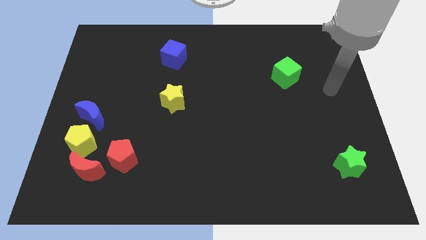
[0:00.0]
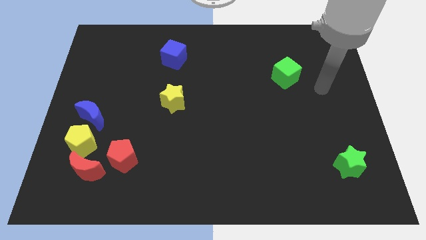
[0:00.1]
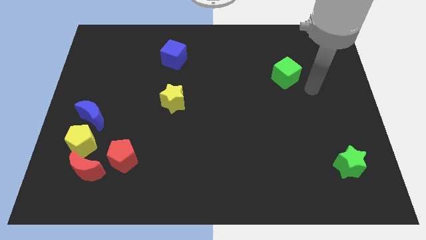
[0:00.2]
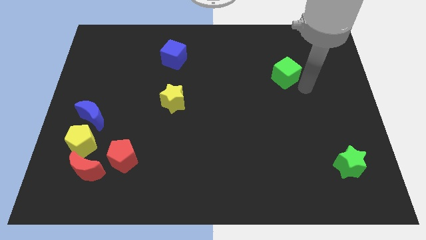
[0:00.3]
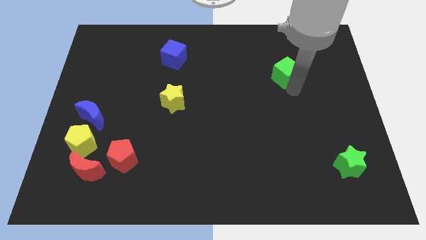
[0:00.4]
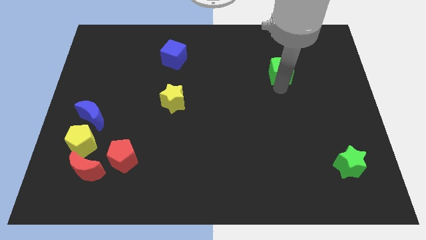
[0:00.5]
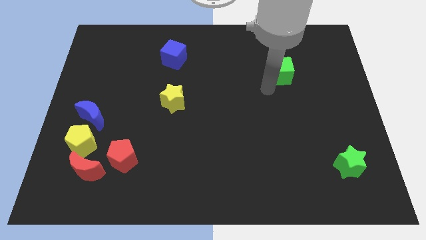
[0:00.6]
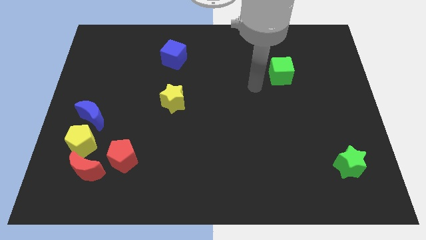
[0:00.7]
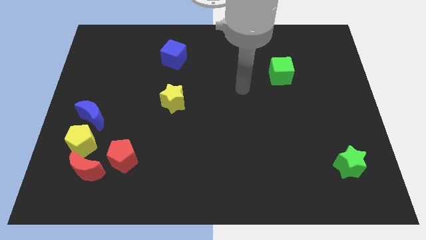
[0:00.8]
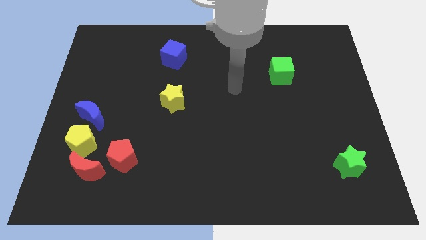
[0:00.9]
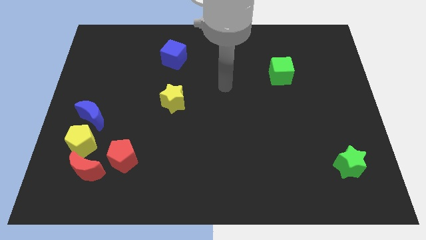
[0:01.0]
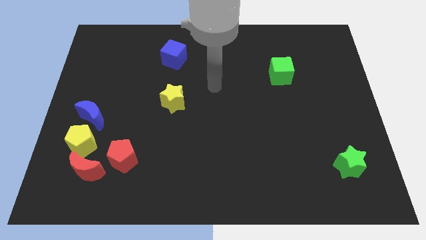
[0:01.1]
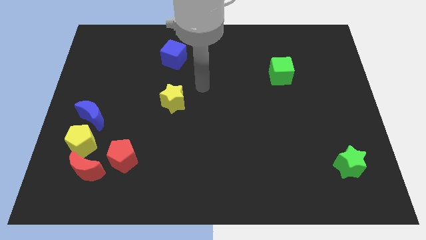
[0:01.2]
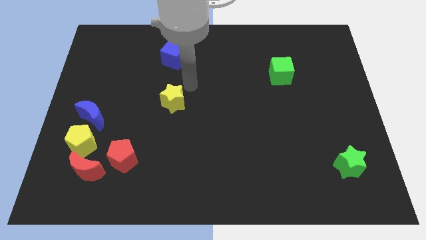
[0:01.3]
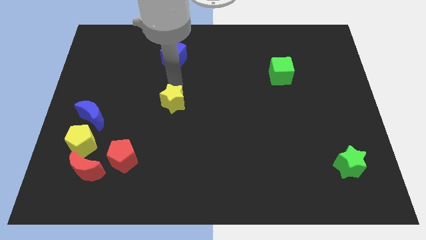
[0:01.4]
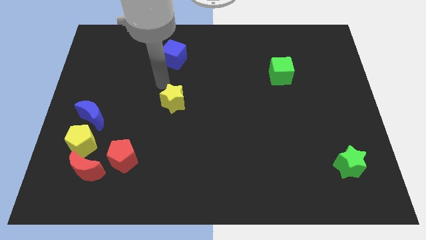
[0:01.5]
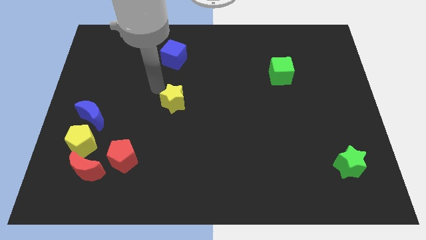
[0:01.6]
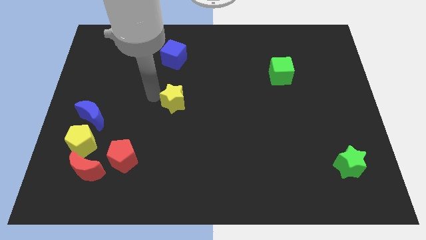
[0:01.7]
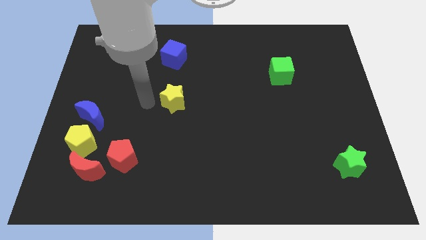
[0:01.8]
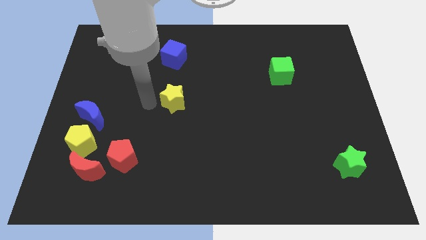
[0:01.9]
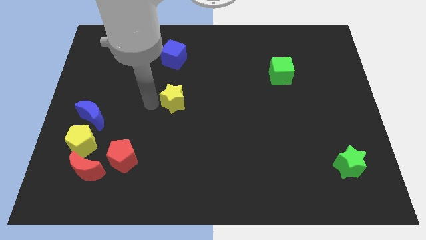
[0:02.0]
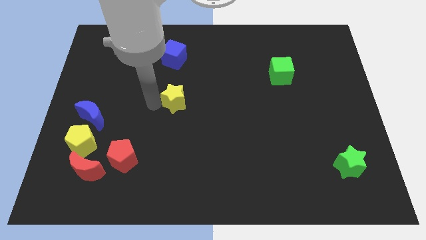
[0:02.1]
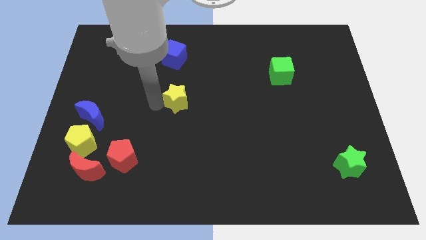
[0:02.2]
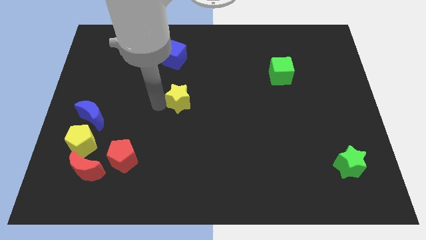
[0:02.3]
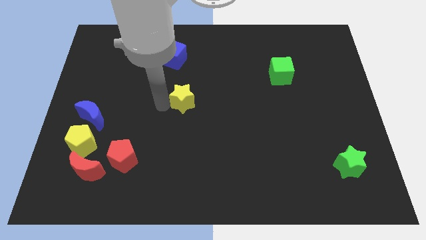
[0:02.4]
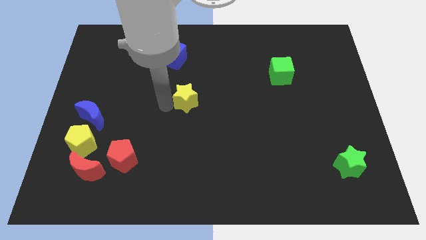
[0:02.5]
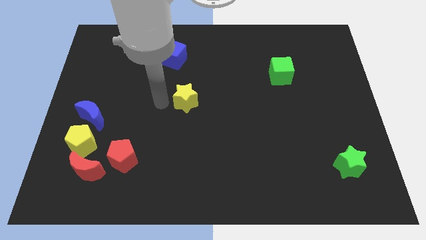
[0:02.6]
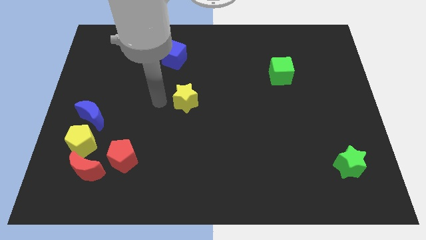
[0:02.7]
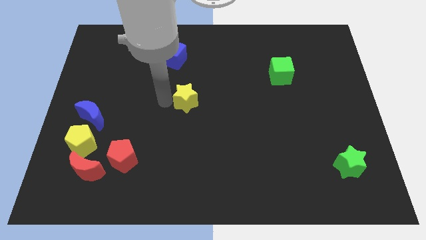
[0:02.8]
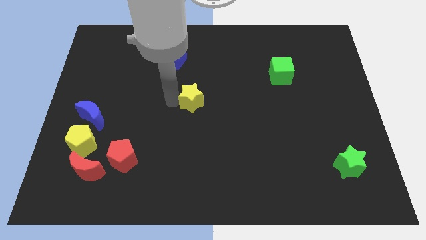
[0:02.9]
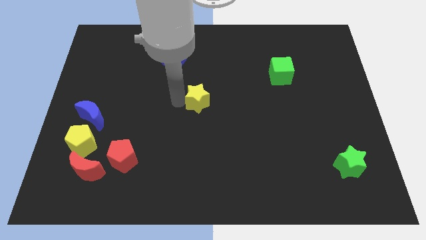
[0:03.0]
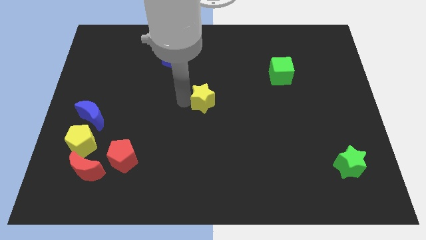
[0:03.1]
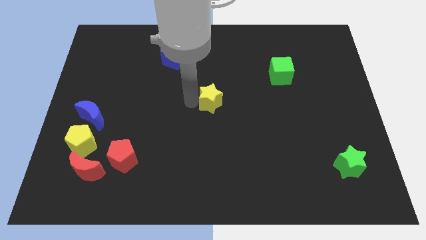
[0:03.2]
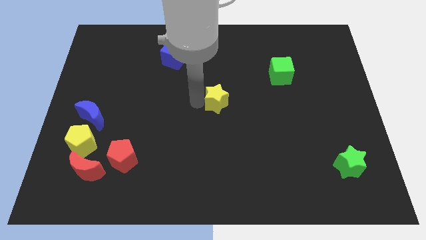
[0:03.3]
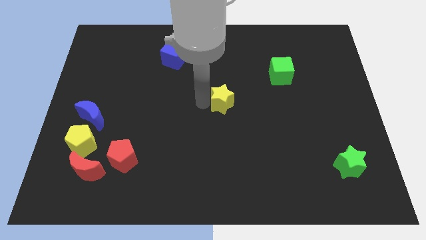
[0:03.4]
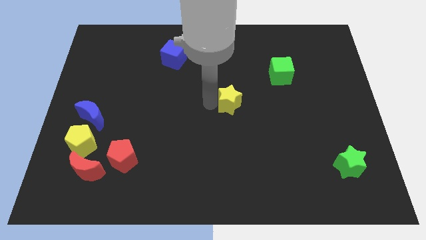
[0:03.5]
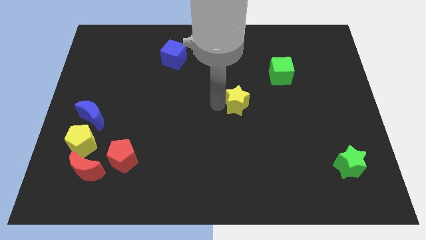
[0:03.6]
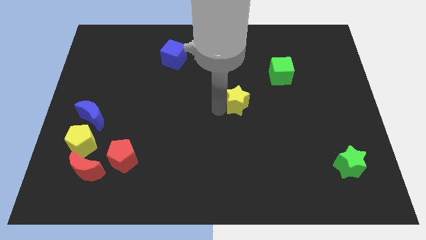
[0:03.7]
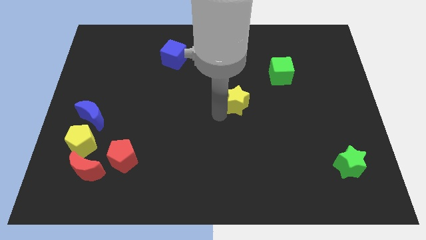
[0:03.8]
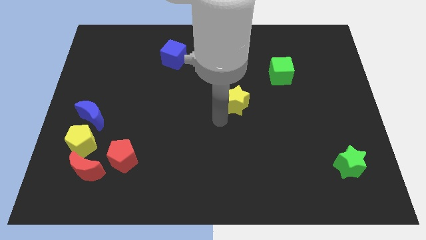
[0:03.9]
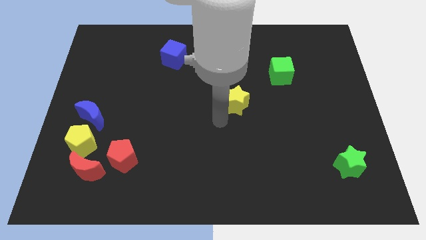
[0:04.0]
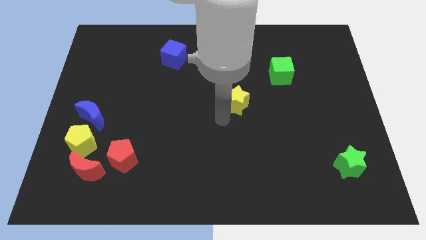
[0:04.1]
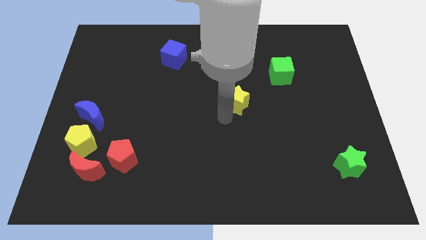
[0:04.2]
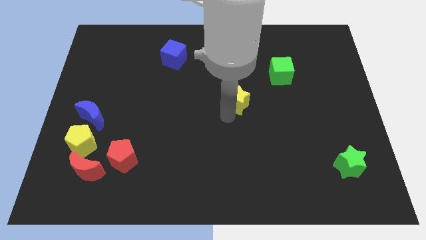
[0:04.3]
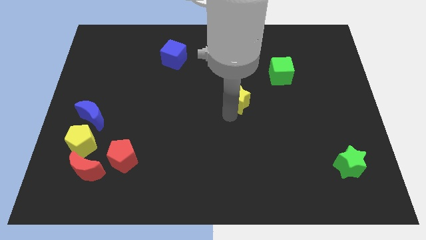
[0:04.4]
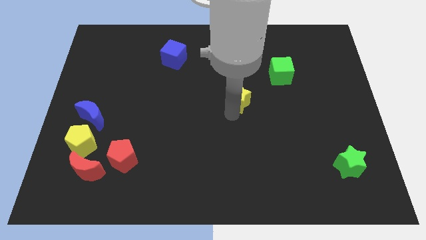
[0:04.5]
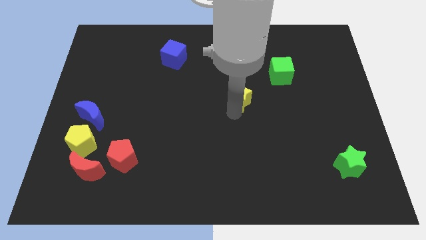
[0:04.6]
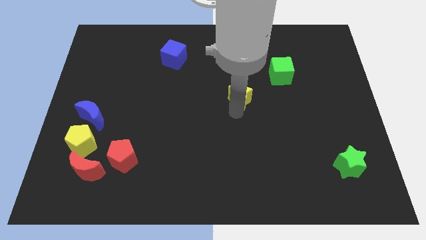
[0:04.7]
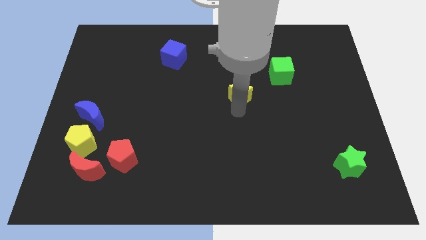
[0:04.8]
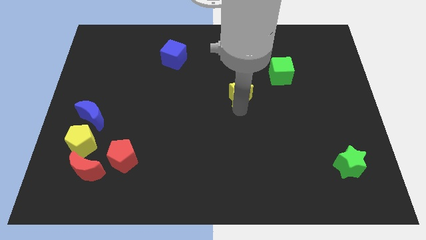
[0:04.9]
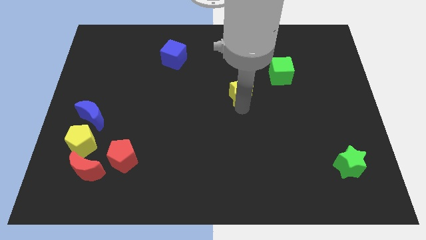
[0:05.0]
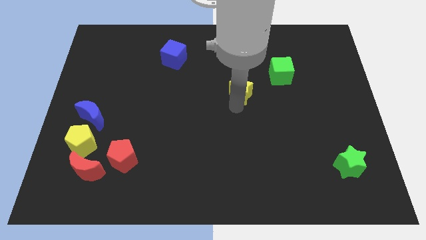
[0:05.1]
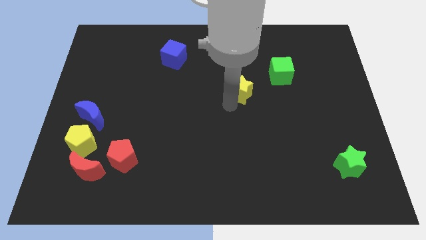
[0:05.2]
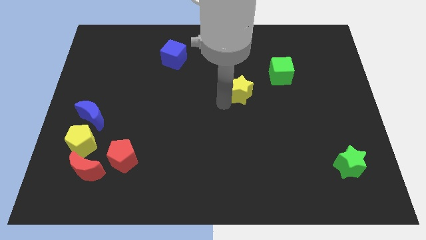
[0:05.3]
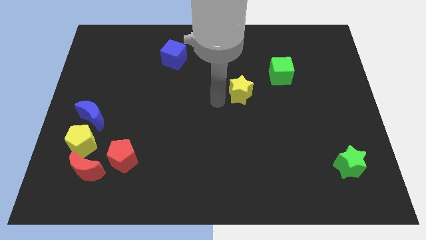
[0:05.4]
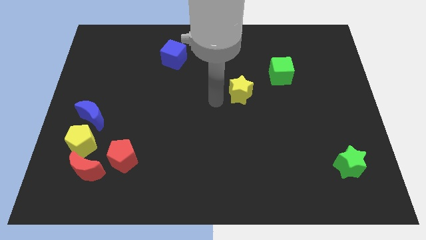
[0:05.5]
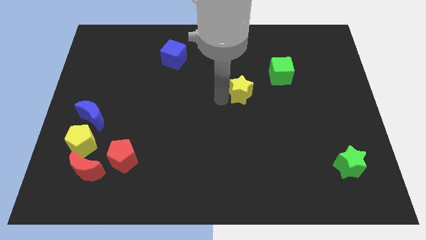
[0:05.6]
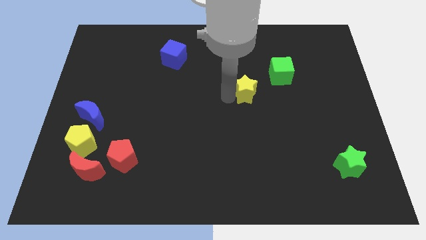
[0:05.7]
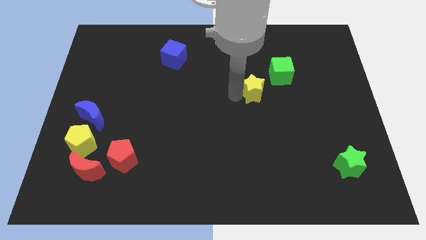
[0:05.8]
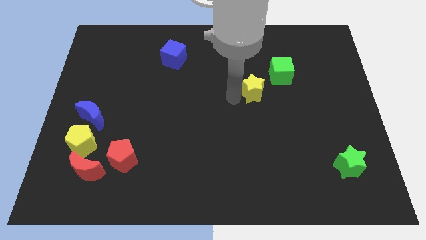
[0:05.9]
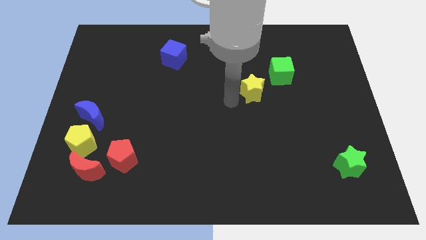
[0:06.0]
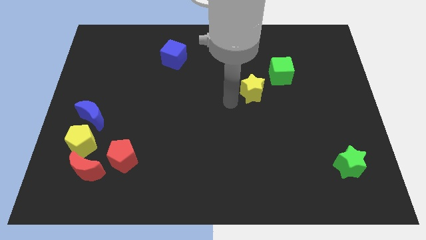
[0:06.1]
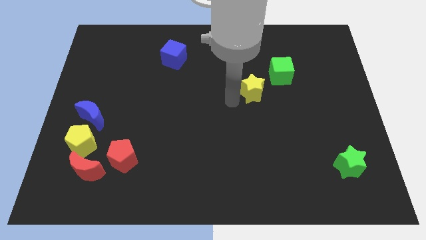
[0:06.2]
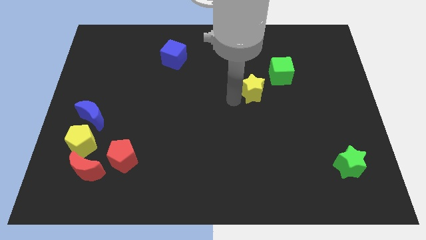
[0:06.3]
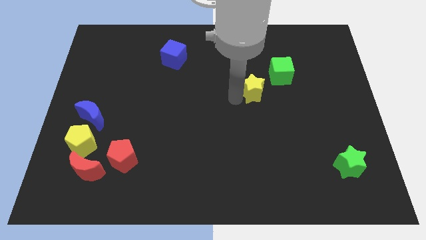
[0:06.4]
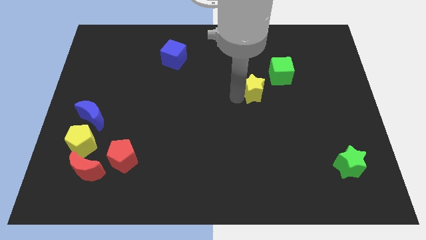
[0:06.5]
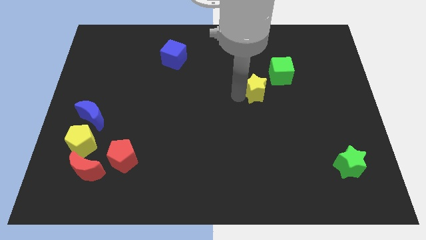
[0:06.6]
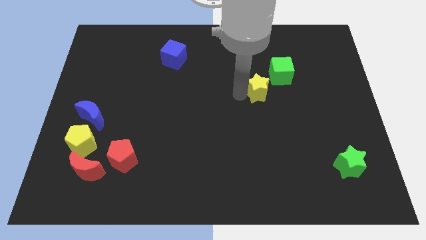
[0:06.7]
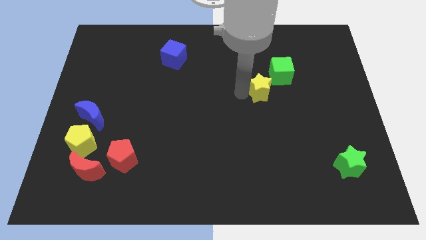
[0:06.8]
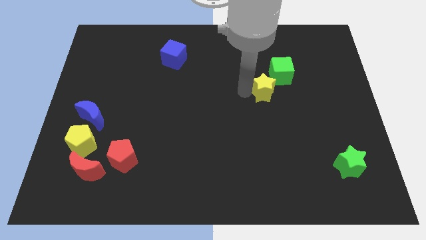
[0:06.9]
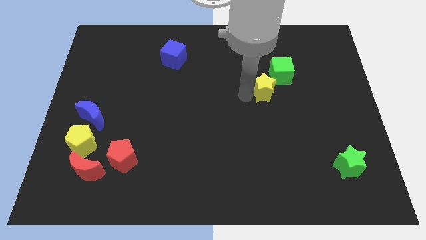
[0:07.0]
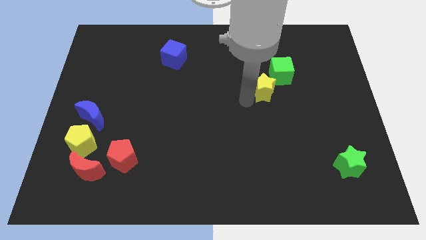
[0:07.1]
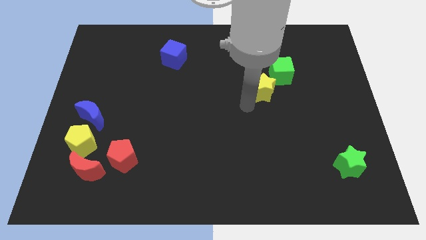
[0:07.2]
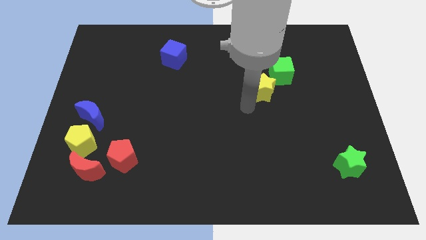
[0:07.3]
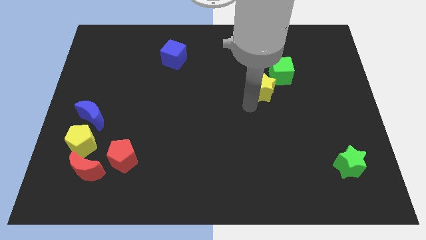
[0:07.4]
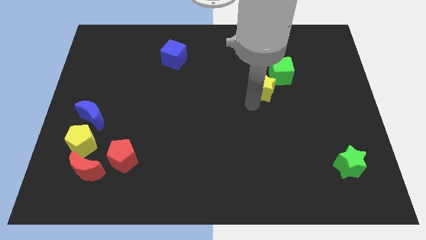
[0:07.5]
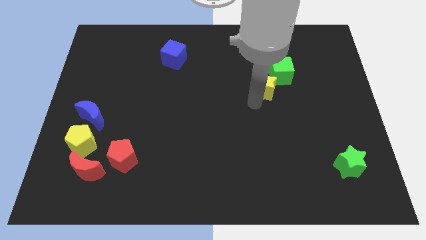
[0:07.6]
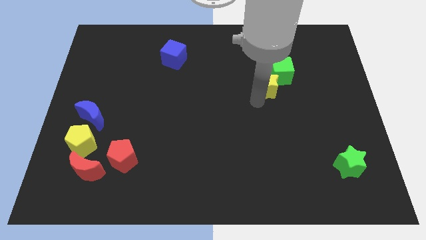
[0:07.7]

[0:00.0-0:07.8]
push the yellow star close to the green cube
